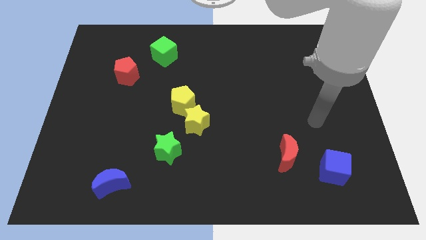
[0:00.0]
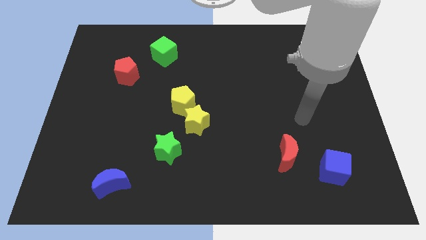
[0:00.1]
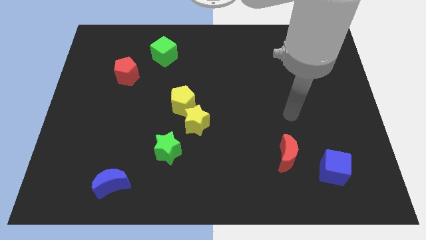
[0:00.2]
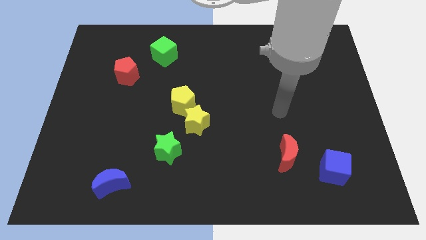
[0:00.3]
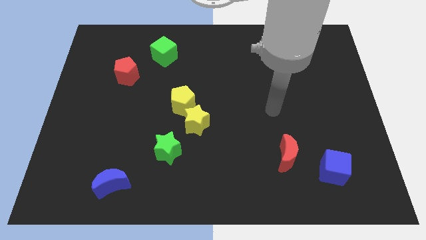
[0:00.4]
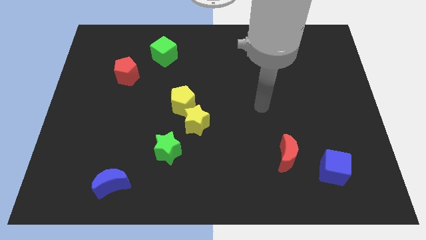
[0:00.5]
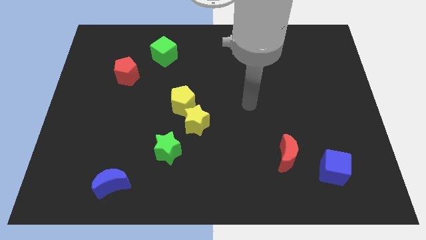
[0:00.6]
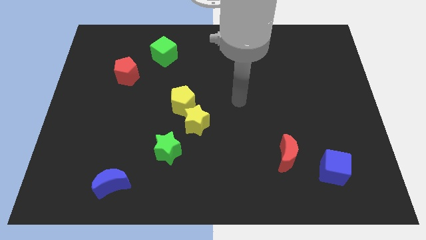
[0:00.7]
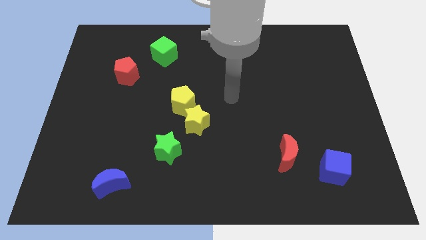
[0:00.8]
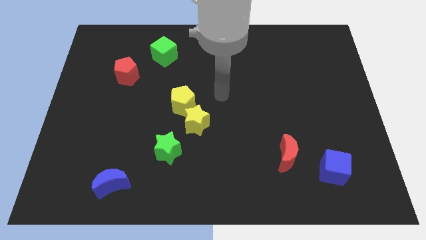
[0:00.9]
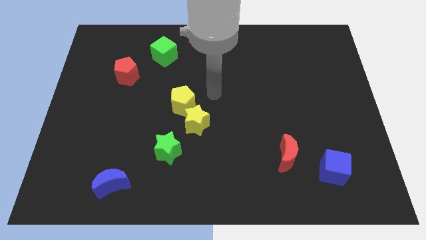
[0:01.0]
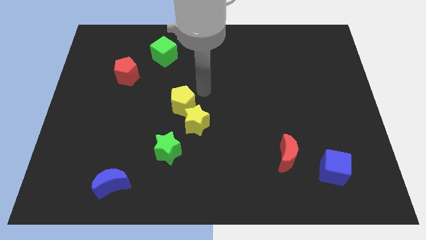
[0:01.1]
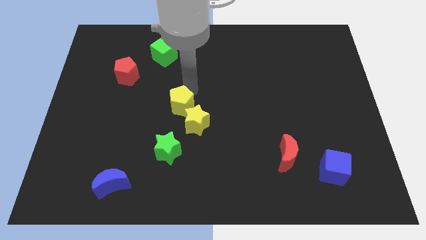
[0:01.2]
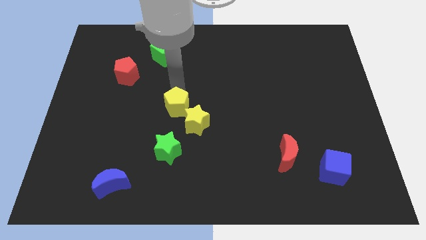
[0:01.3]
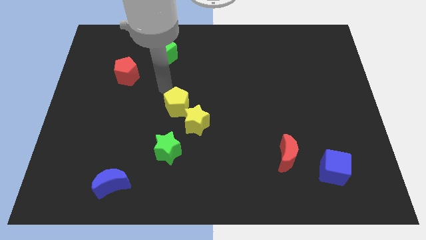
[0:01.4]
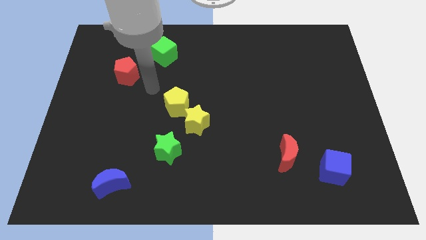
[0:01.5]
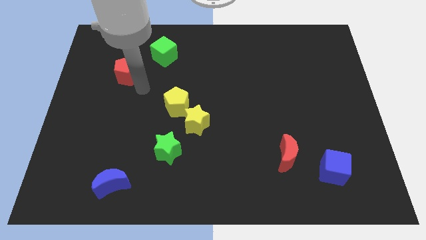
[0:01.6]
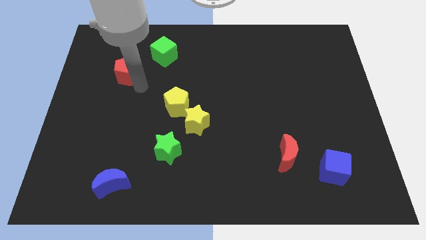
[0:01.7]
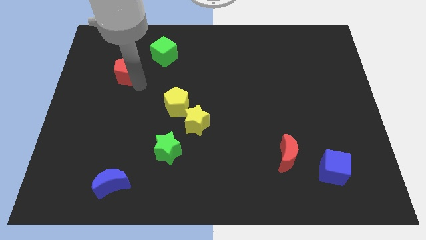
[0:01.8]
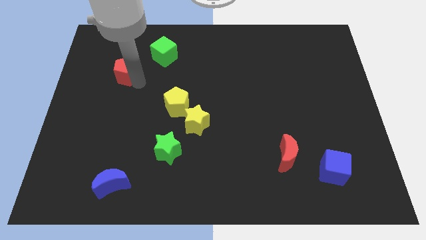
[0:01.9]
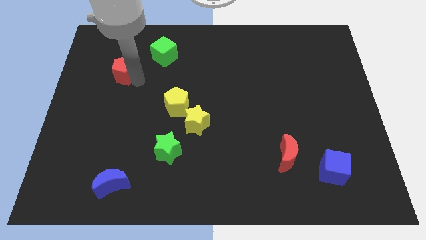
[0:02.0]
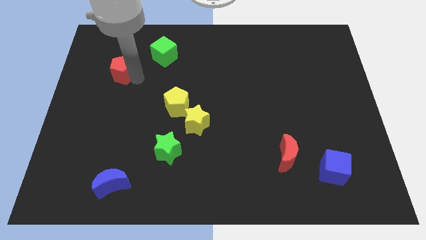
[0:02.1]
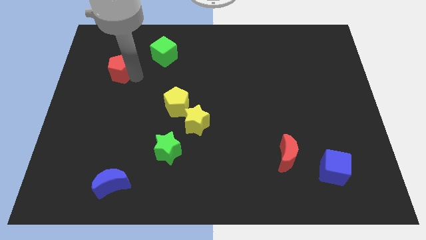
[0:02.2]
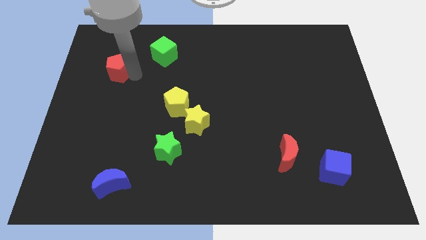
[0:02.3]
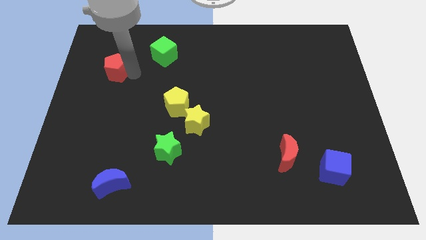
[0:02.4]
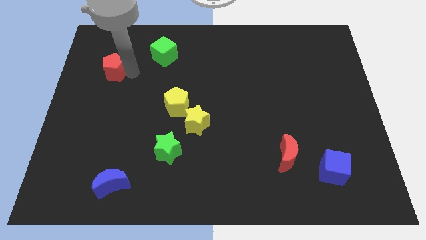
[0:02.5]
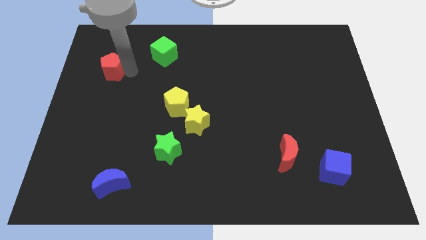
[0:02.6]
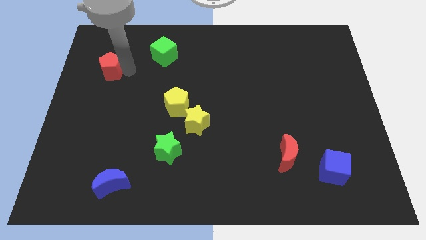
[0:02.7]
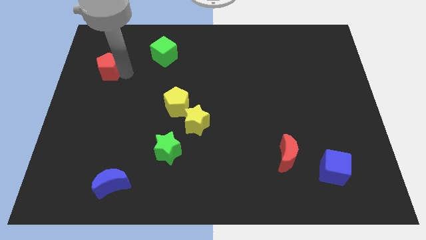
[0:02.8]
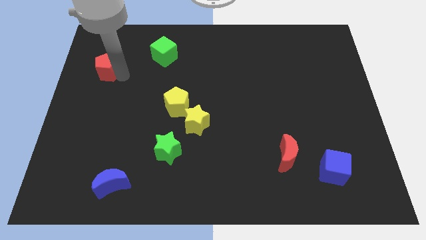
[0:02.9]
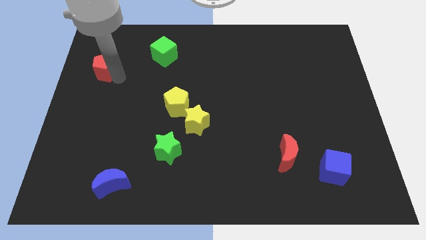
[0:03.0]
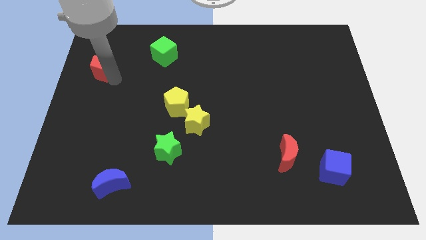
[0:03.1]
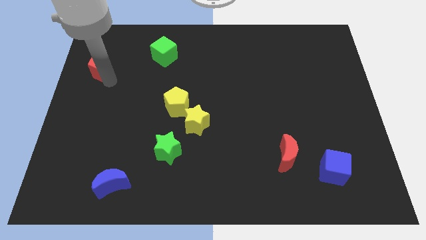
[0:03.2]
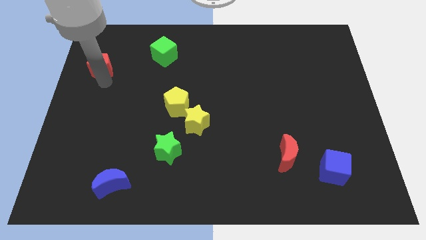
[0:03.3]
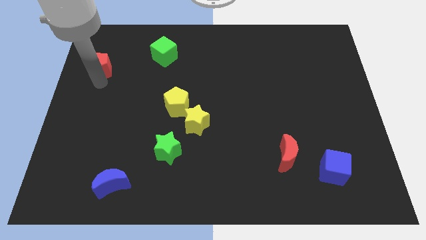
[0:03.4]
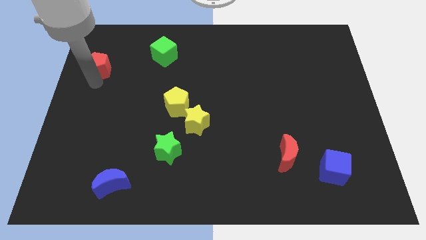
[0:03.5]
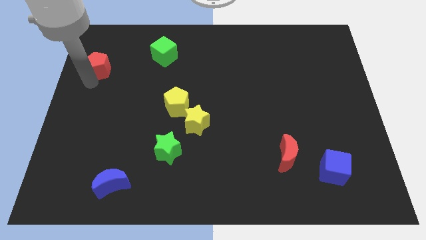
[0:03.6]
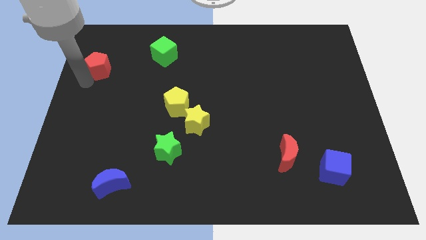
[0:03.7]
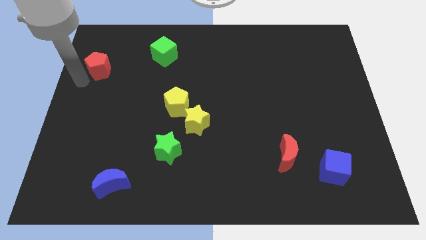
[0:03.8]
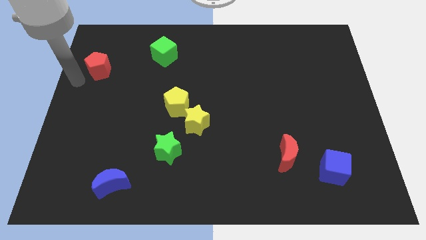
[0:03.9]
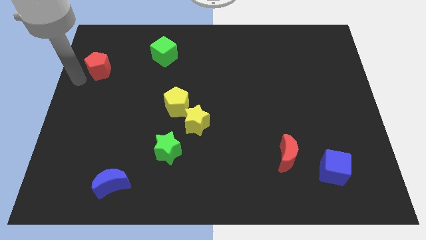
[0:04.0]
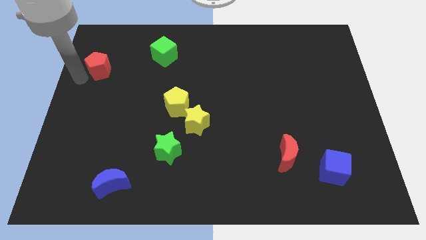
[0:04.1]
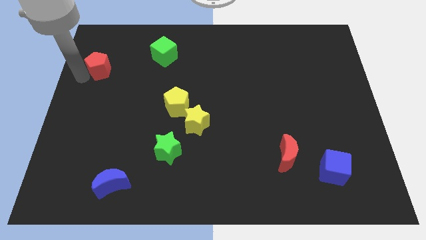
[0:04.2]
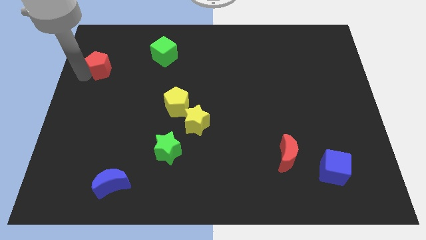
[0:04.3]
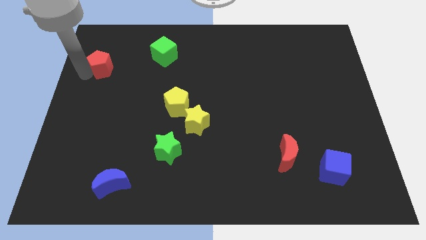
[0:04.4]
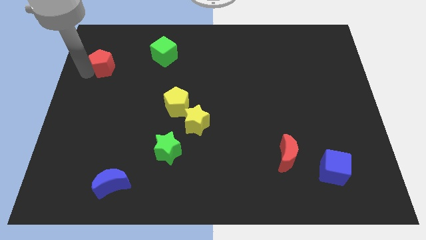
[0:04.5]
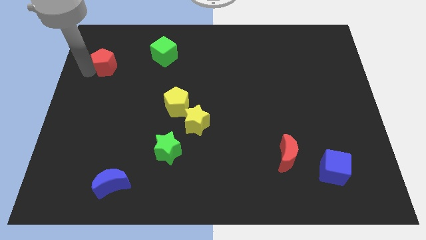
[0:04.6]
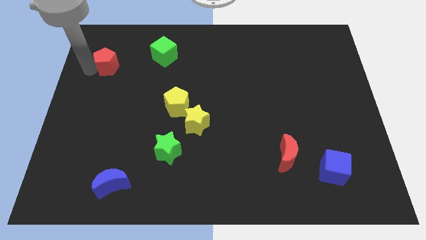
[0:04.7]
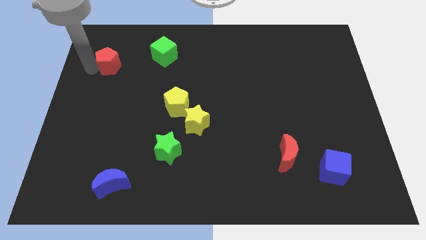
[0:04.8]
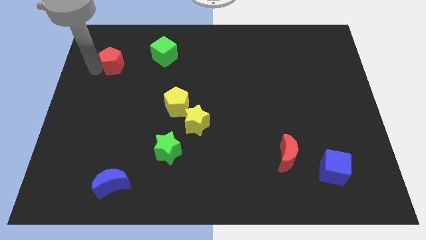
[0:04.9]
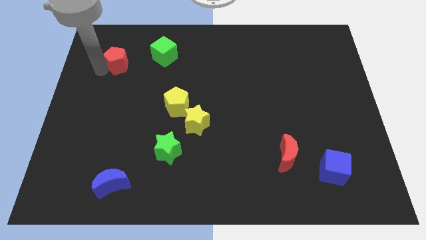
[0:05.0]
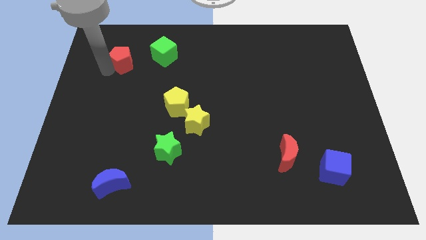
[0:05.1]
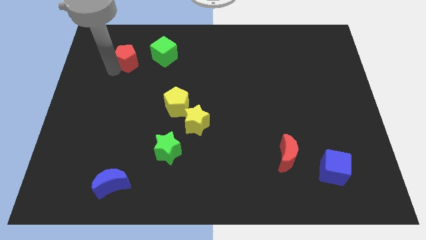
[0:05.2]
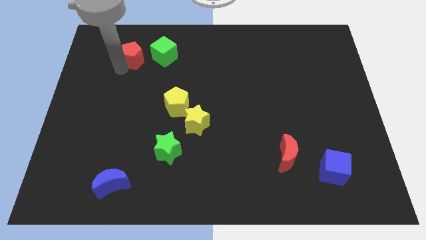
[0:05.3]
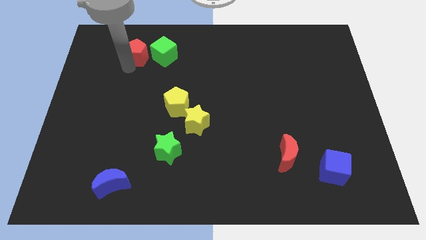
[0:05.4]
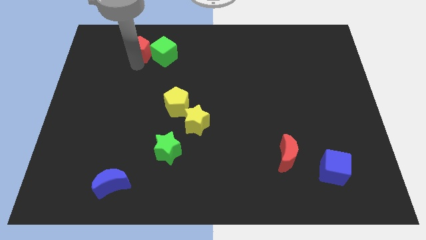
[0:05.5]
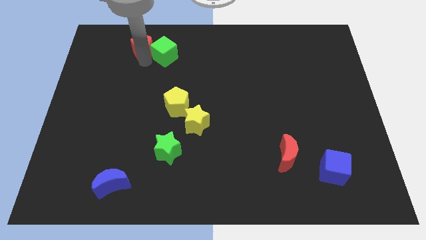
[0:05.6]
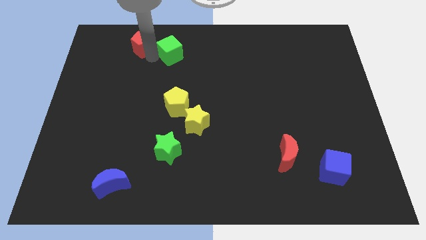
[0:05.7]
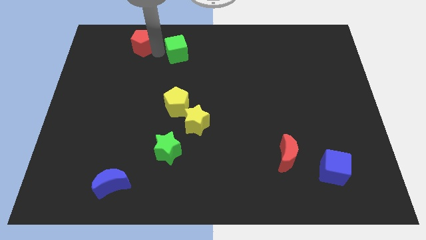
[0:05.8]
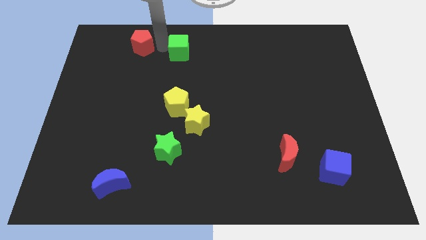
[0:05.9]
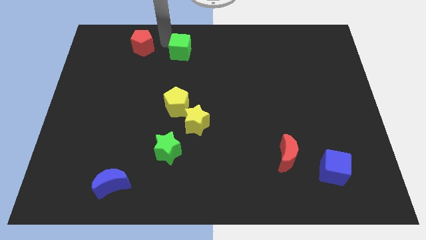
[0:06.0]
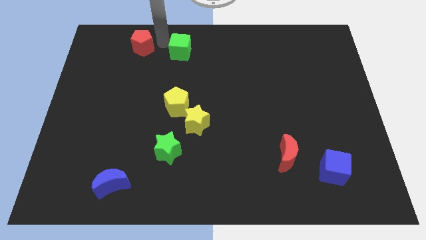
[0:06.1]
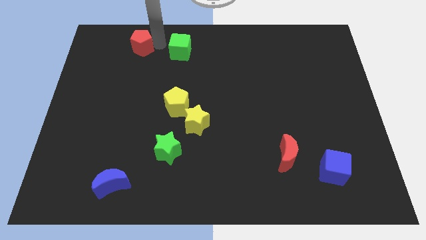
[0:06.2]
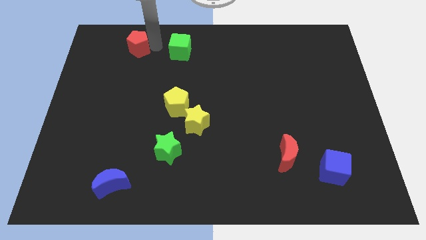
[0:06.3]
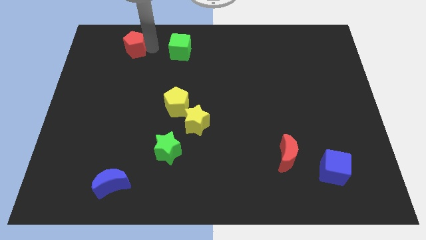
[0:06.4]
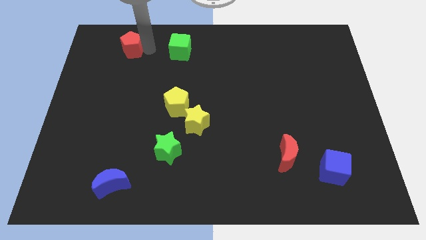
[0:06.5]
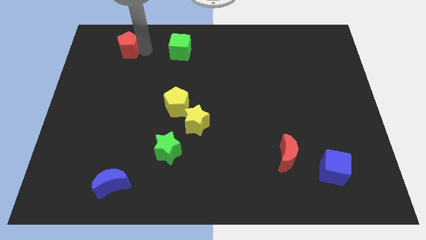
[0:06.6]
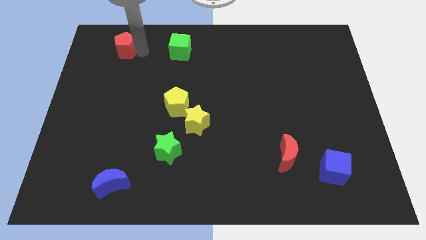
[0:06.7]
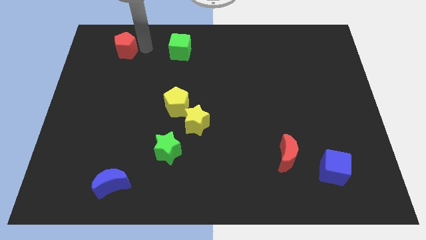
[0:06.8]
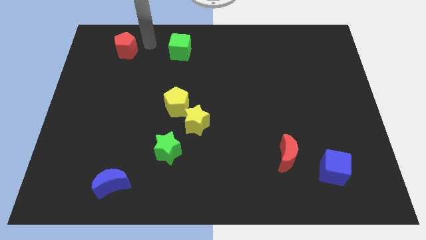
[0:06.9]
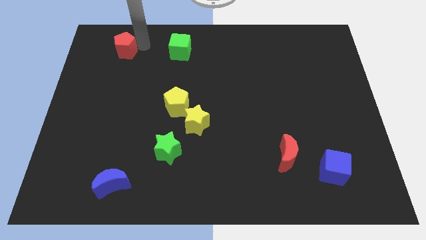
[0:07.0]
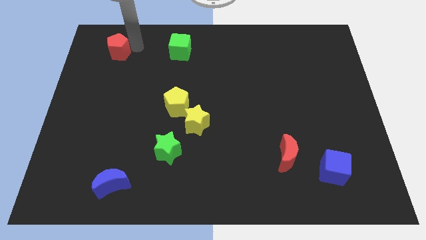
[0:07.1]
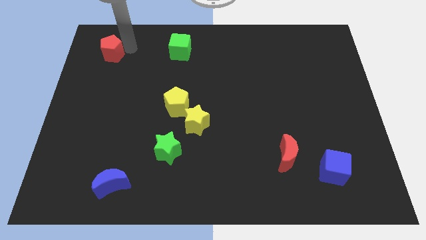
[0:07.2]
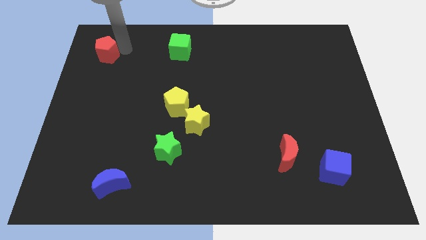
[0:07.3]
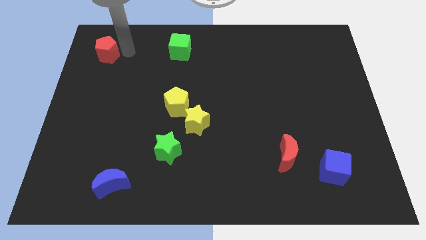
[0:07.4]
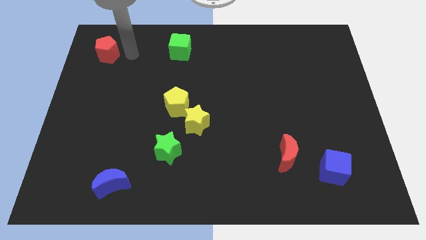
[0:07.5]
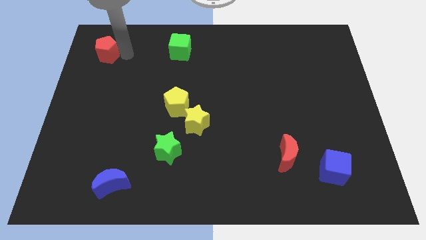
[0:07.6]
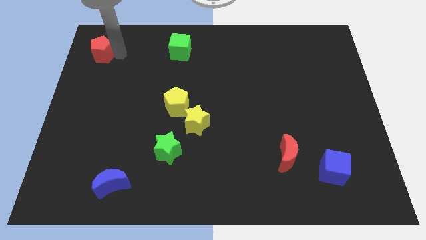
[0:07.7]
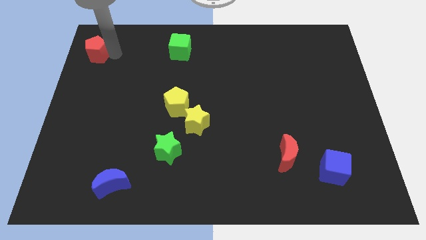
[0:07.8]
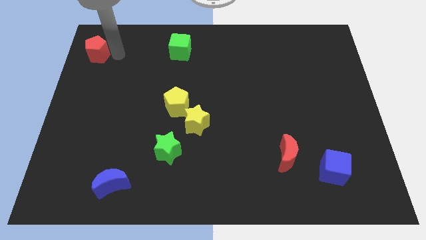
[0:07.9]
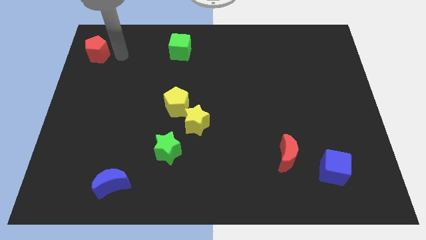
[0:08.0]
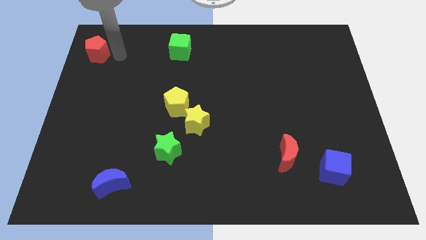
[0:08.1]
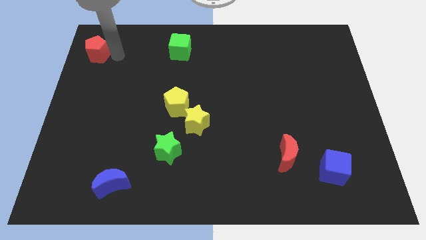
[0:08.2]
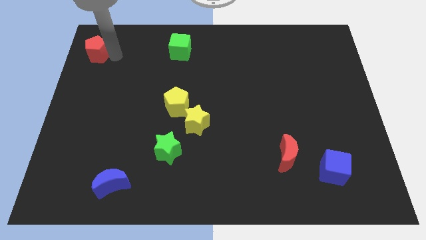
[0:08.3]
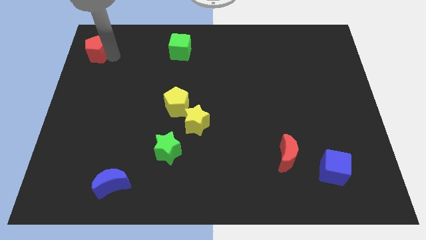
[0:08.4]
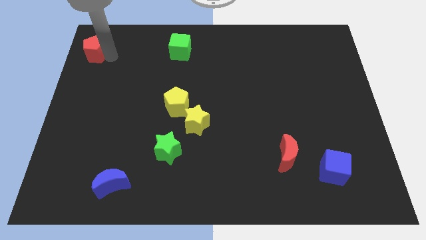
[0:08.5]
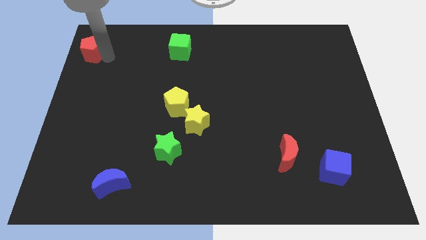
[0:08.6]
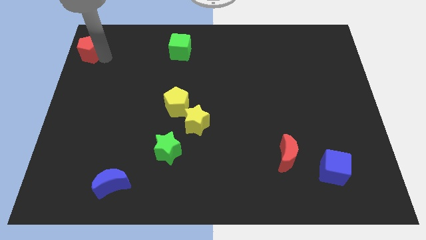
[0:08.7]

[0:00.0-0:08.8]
move the red pentagon to the upper left corner
